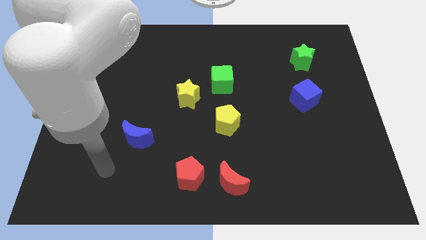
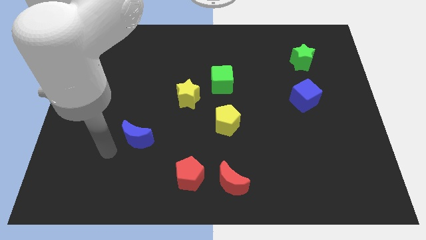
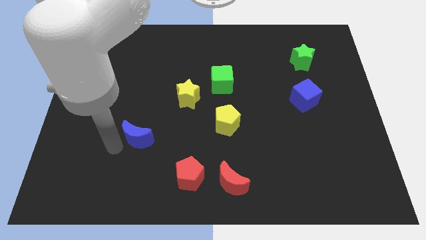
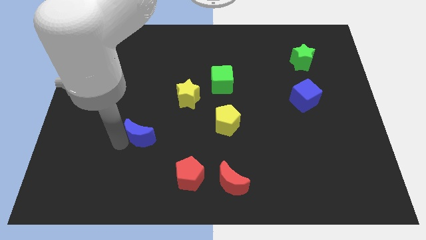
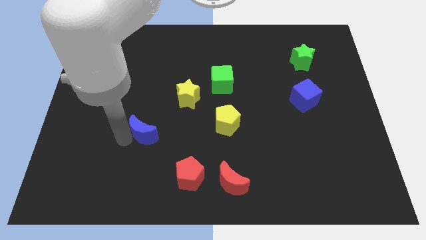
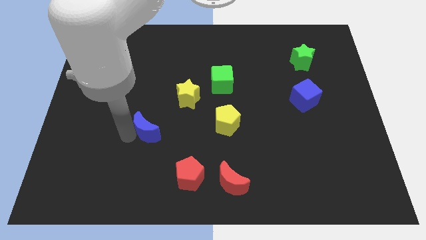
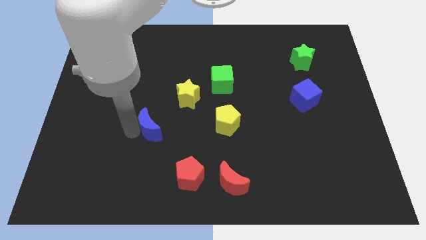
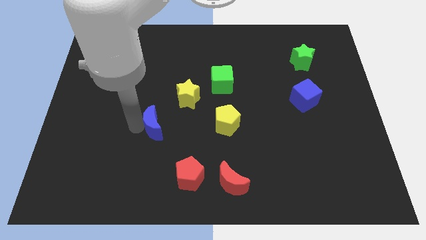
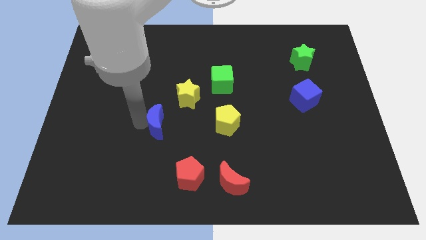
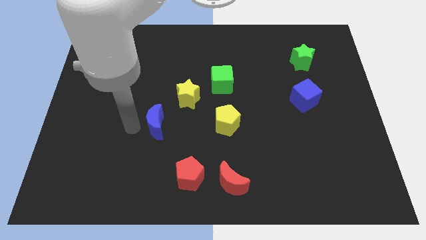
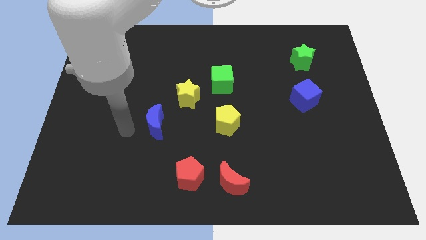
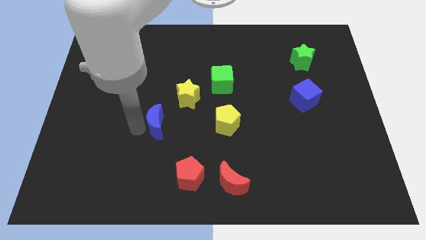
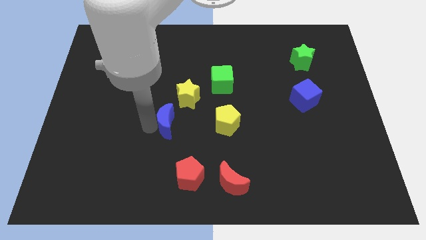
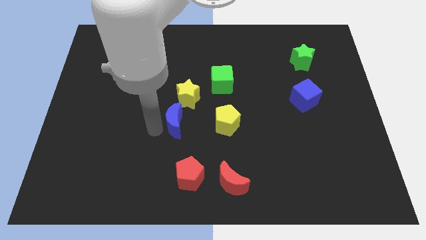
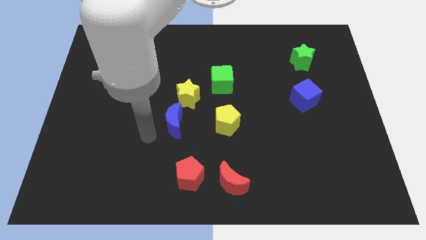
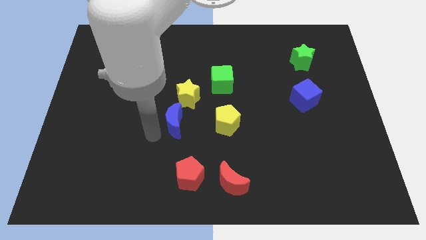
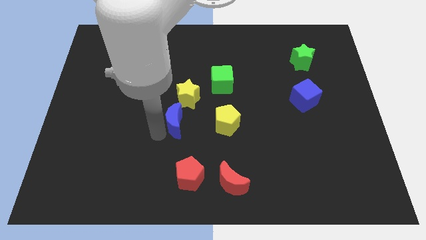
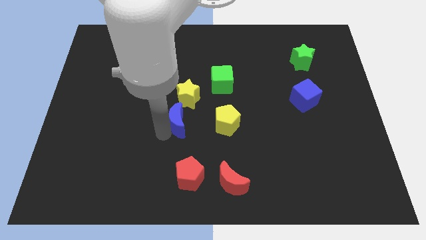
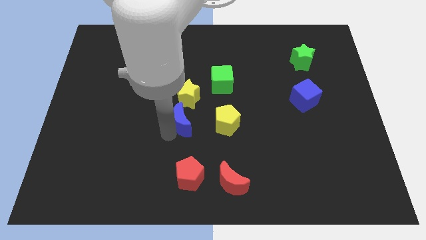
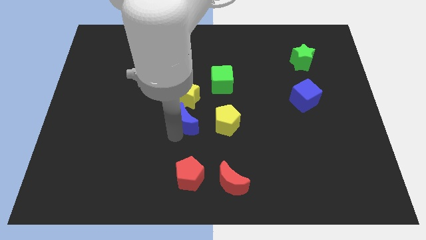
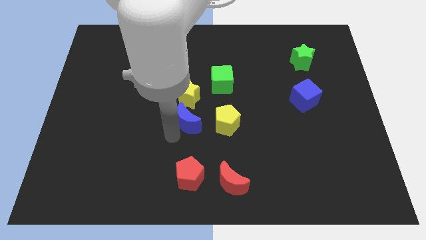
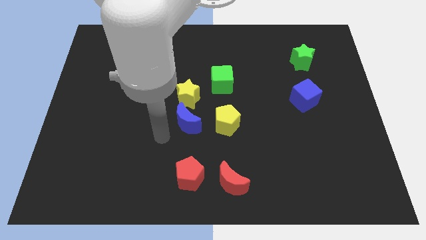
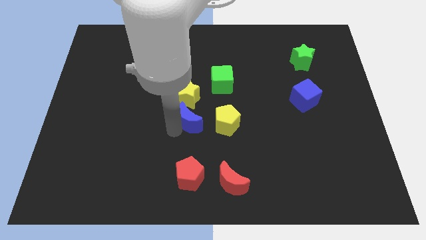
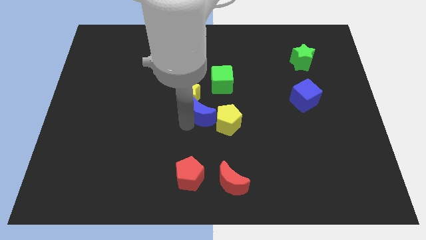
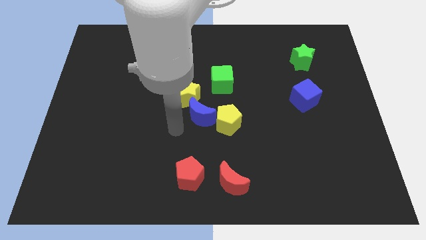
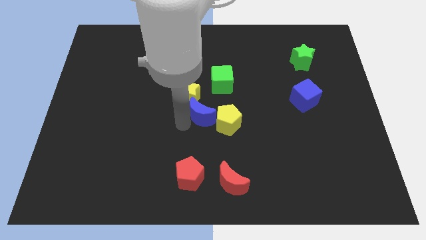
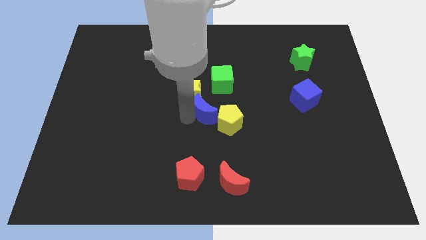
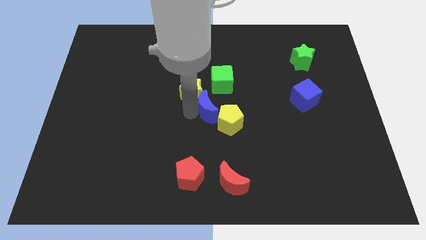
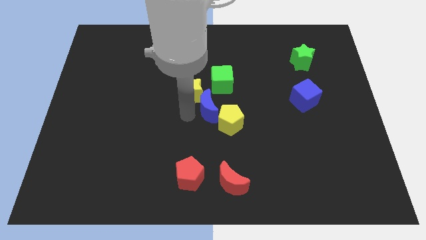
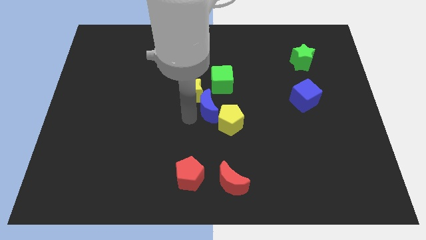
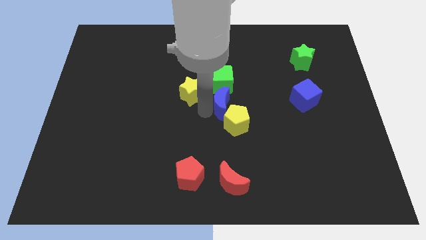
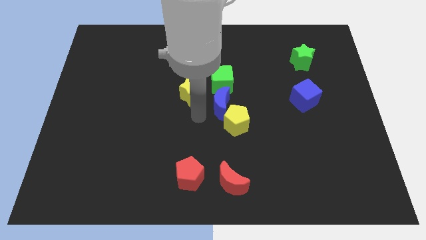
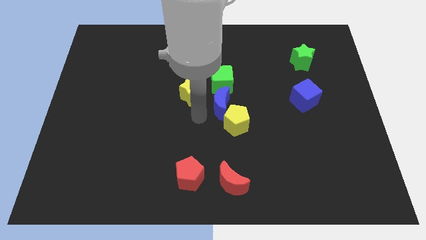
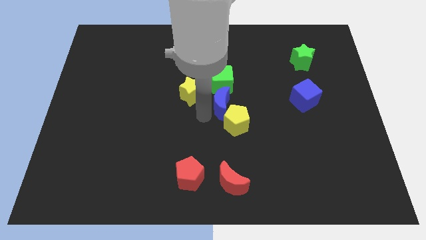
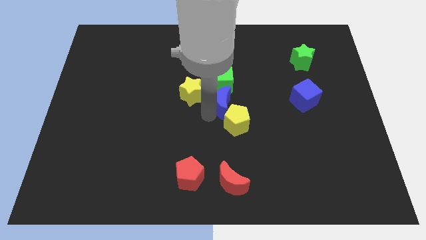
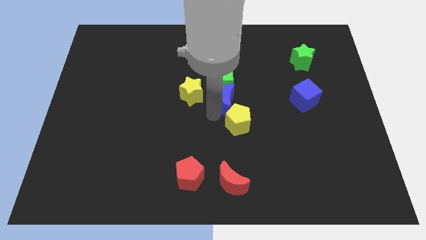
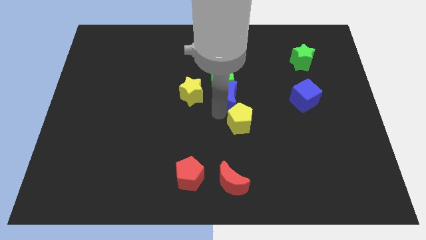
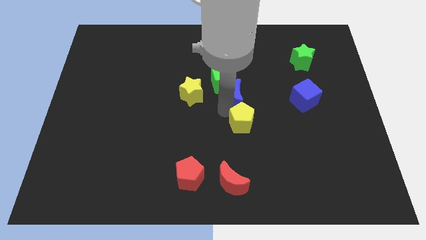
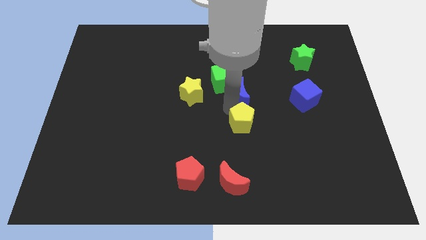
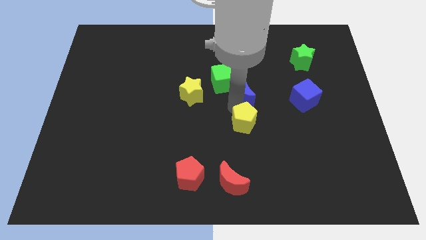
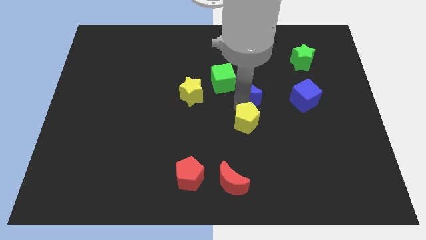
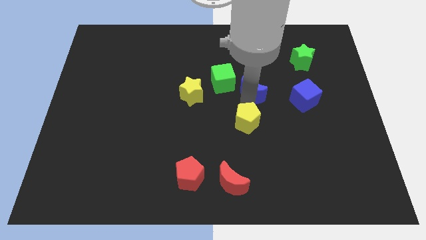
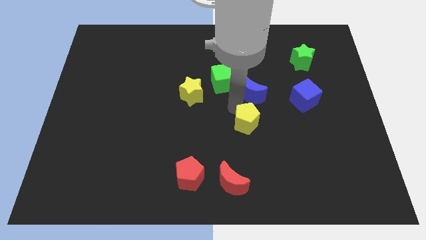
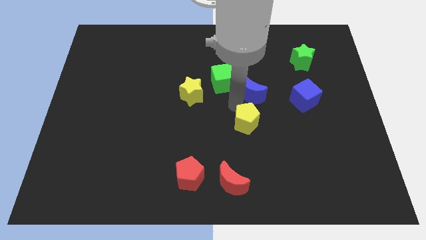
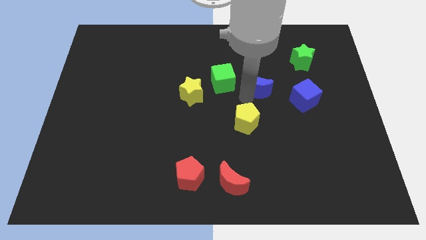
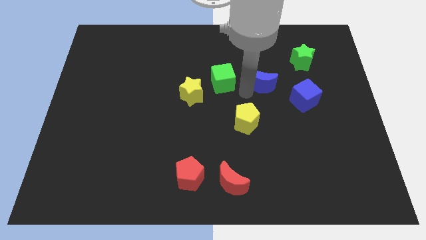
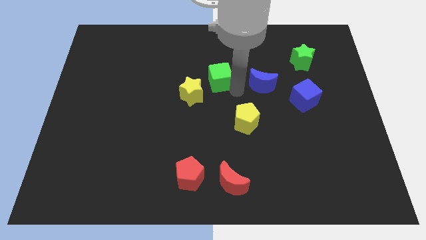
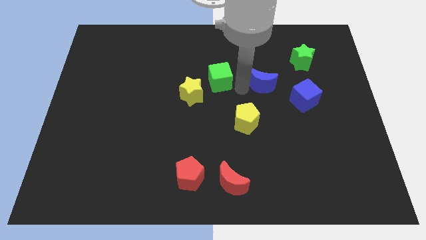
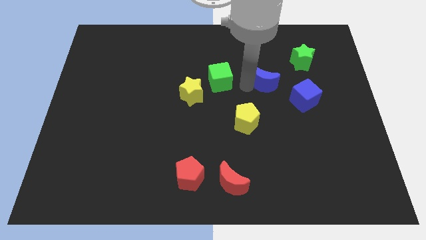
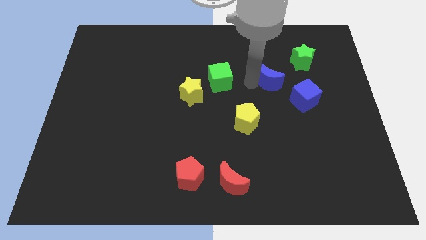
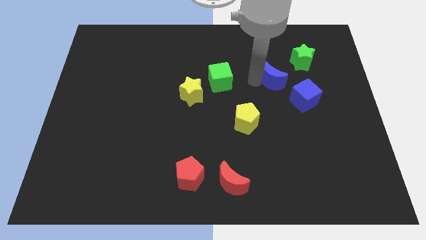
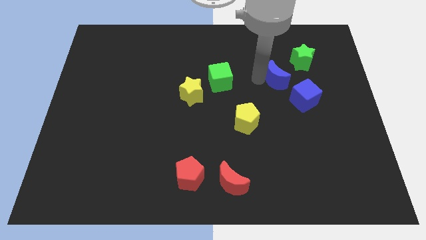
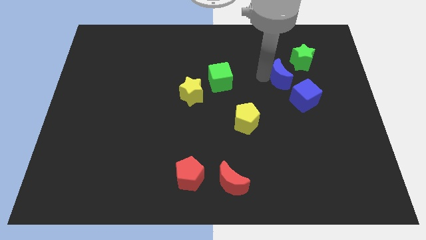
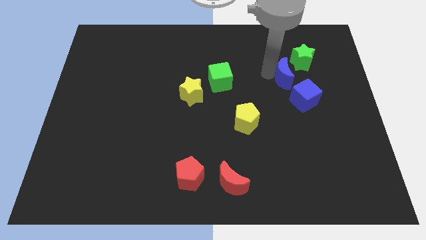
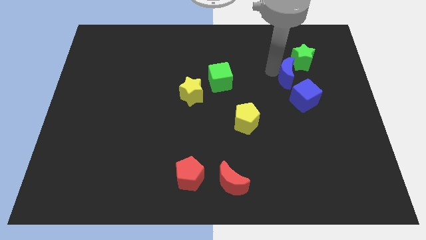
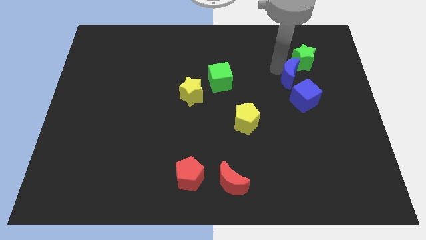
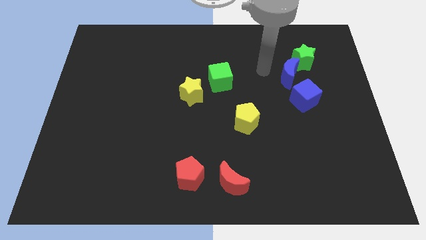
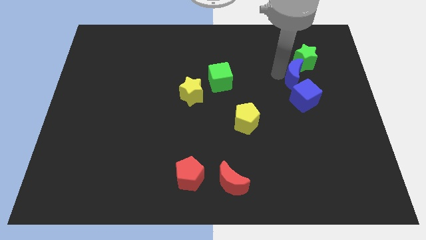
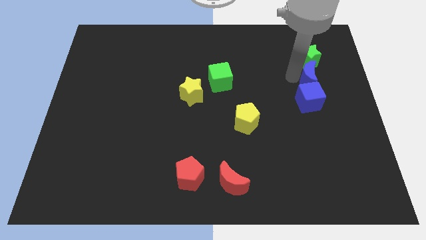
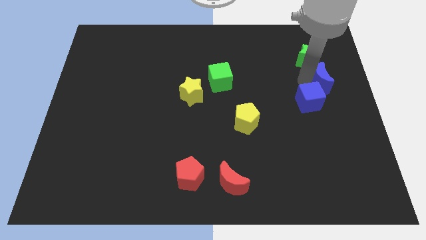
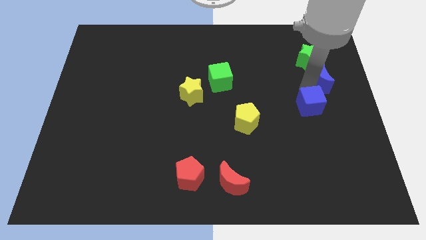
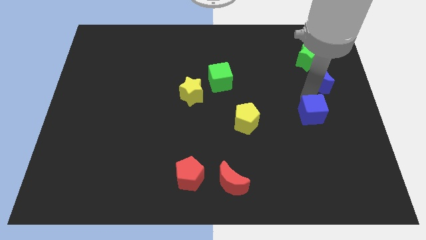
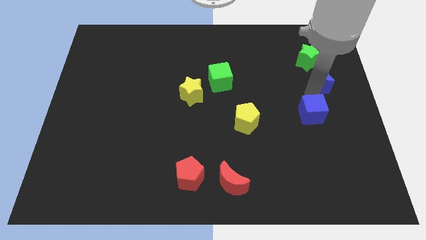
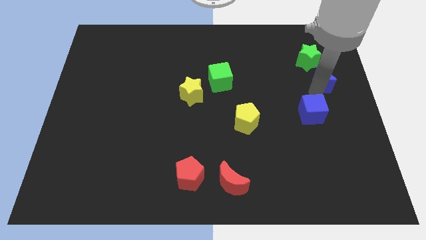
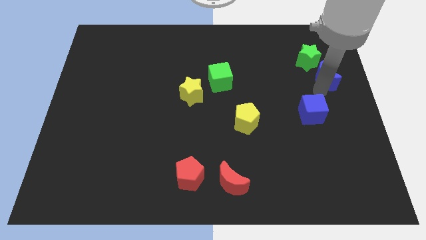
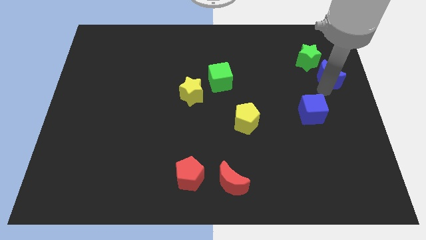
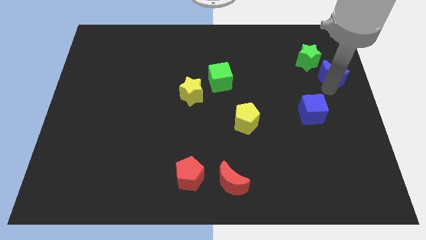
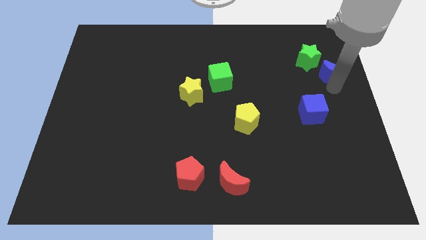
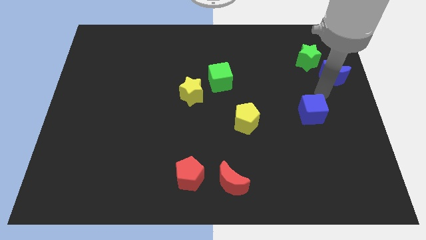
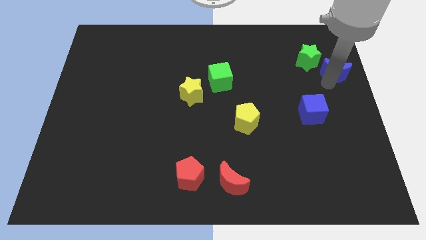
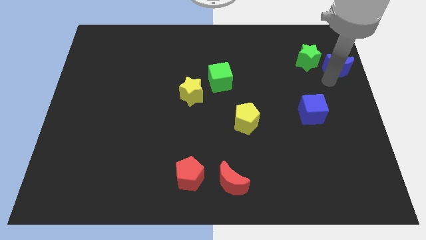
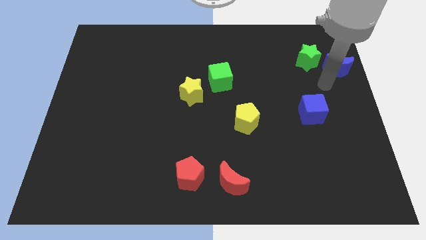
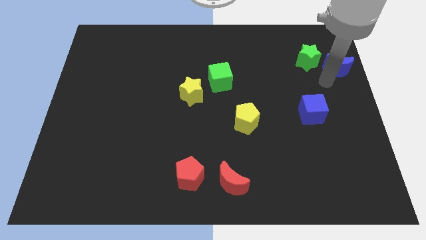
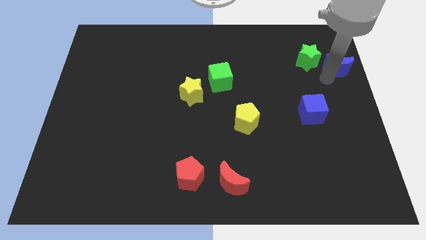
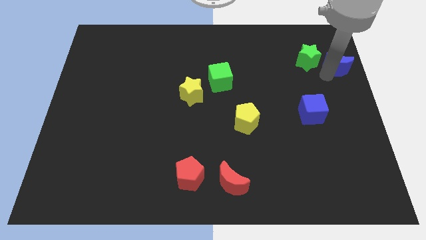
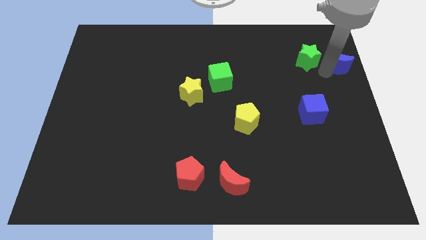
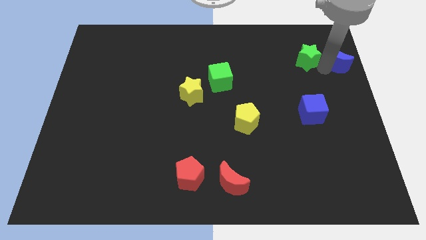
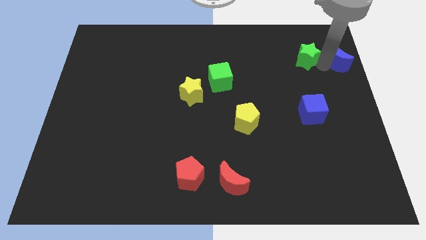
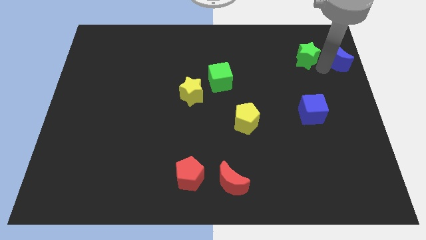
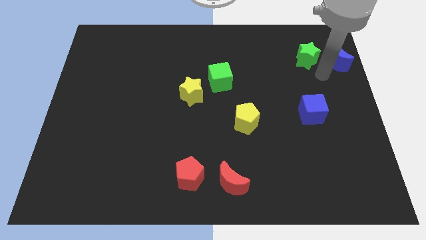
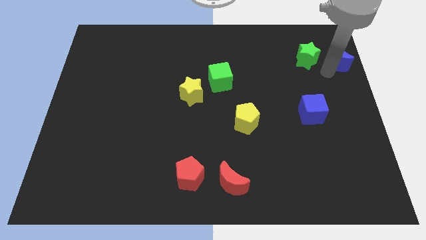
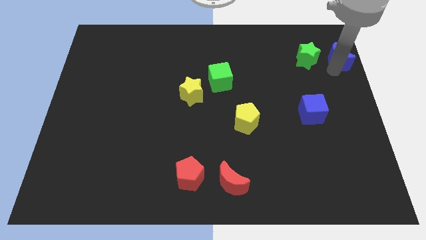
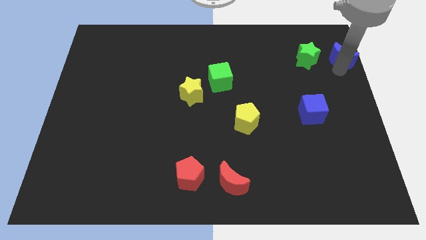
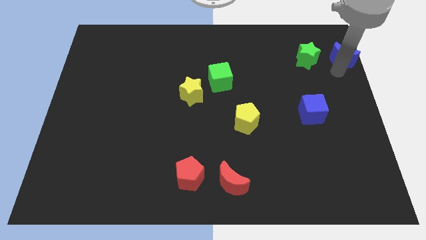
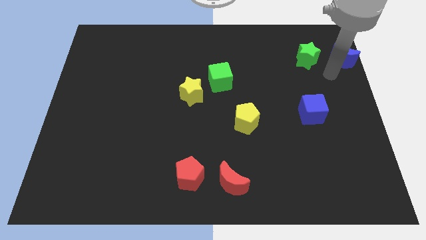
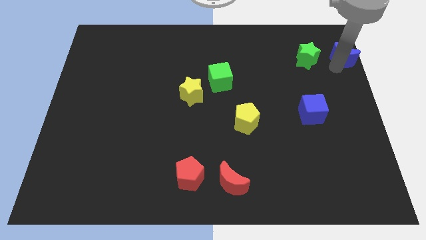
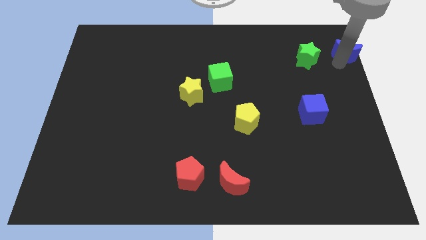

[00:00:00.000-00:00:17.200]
push the blue moon to the top right

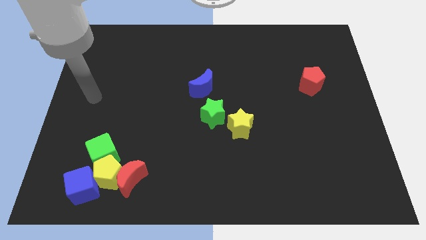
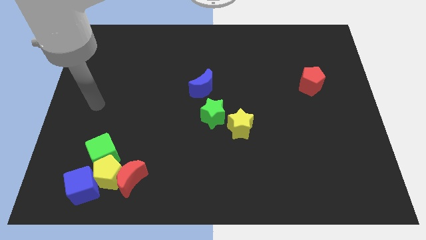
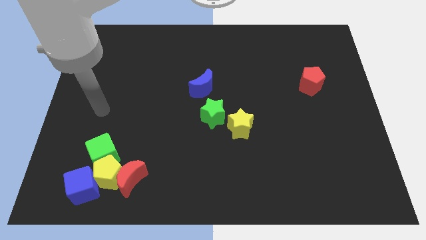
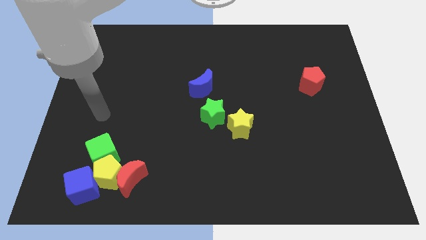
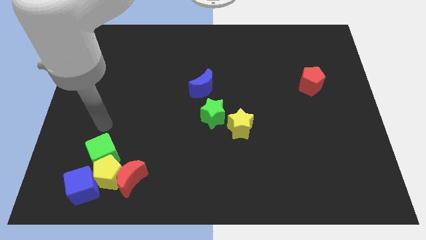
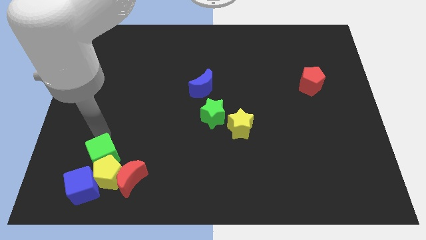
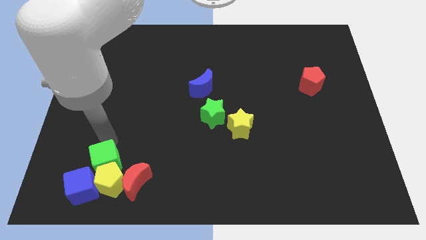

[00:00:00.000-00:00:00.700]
slide the blue cube to the lower left corner
